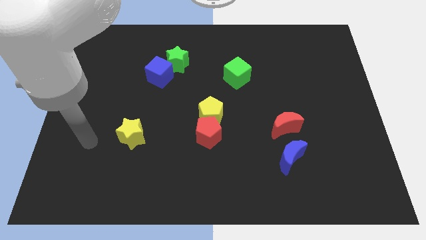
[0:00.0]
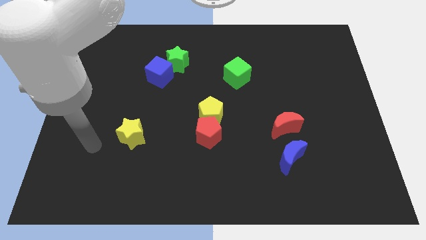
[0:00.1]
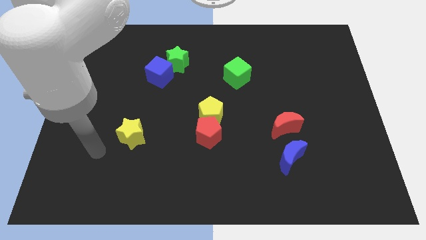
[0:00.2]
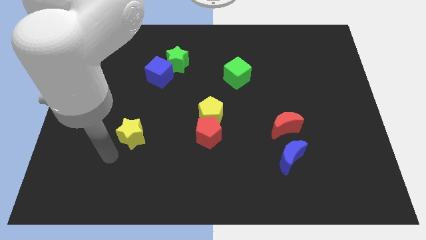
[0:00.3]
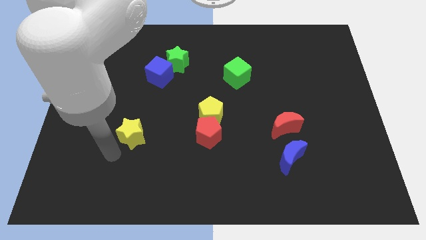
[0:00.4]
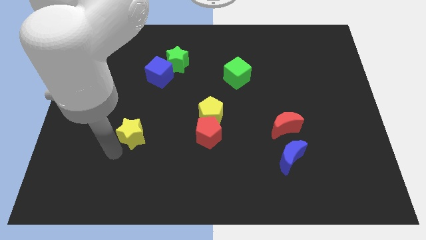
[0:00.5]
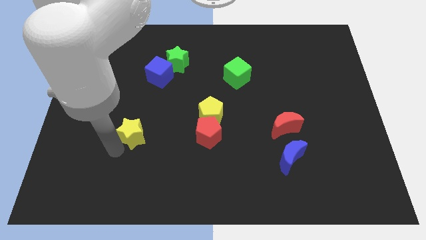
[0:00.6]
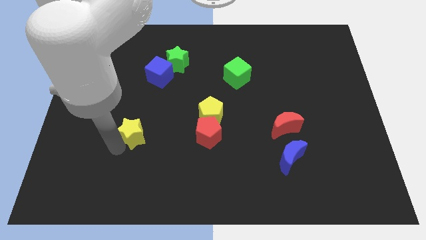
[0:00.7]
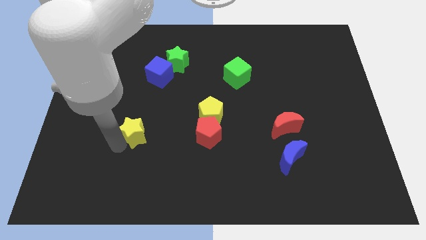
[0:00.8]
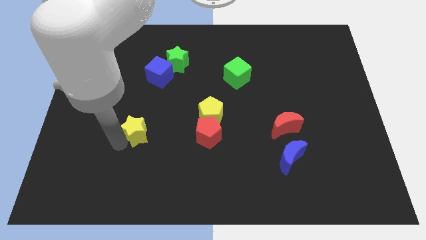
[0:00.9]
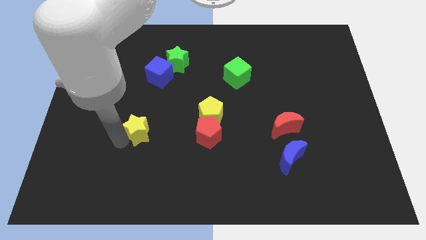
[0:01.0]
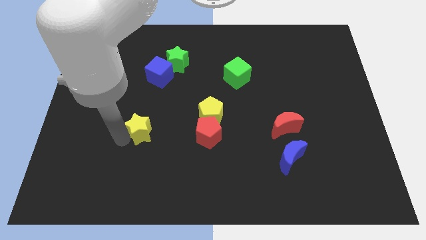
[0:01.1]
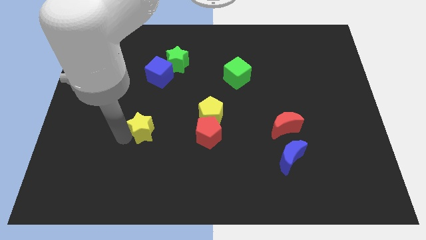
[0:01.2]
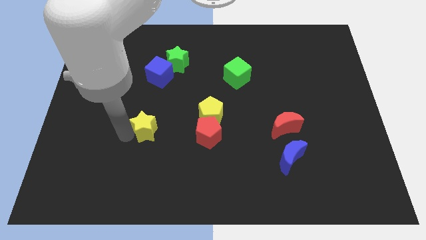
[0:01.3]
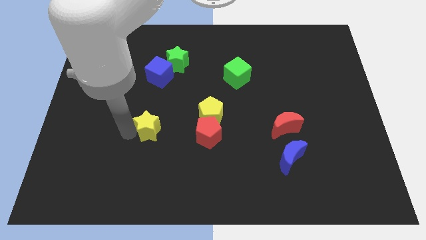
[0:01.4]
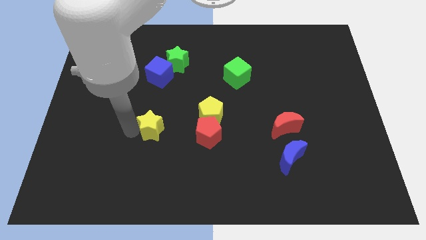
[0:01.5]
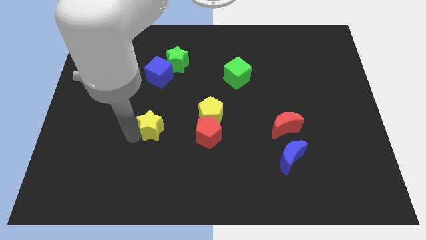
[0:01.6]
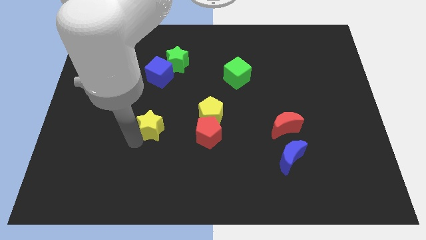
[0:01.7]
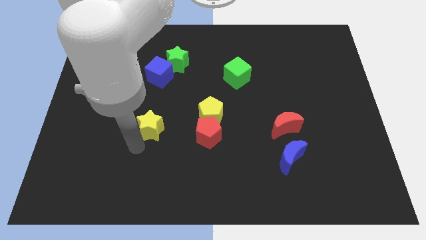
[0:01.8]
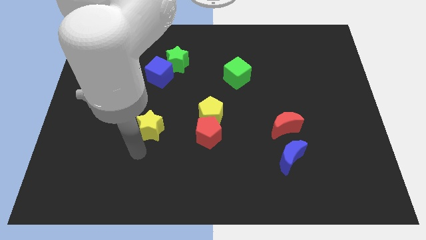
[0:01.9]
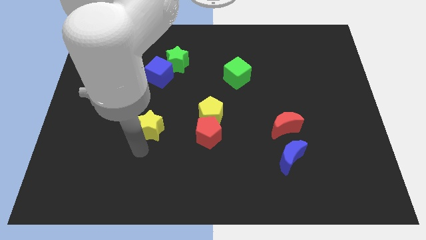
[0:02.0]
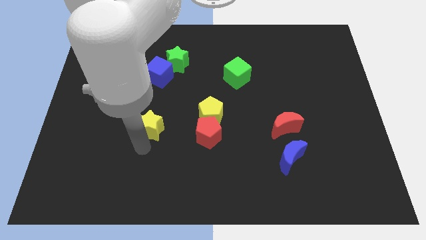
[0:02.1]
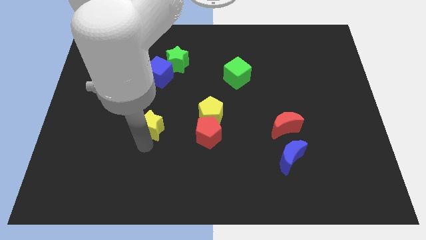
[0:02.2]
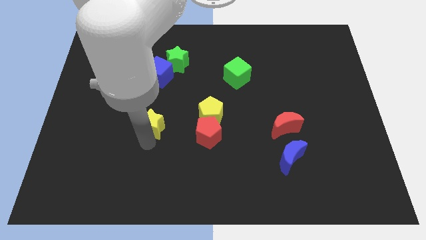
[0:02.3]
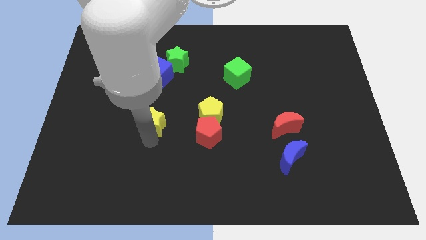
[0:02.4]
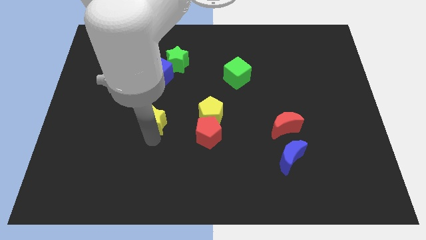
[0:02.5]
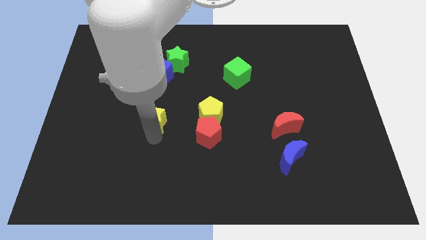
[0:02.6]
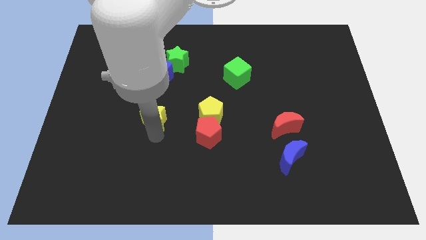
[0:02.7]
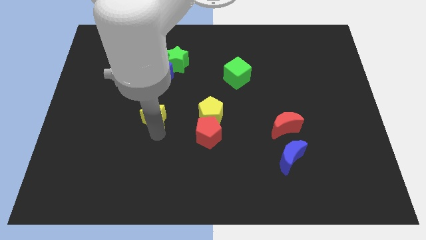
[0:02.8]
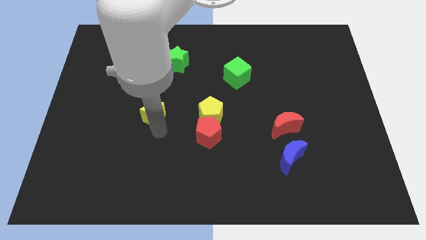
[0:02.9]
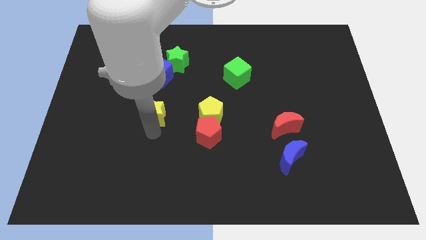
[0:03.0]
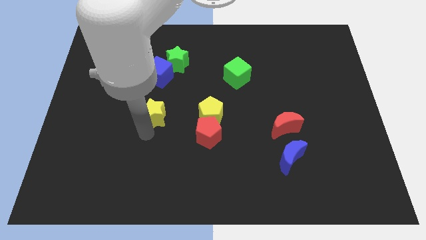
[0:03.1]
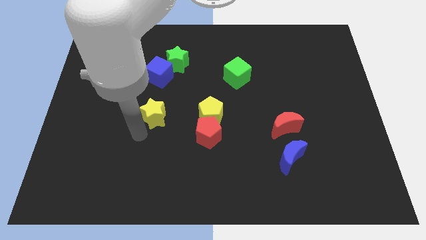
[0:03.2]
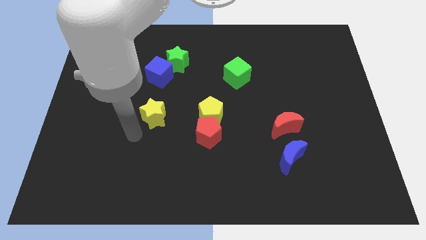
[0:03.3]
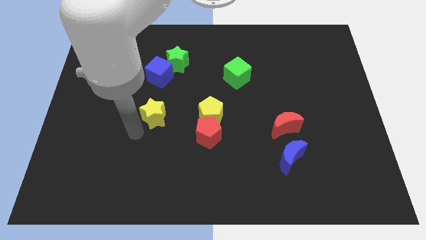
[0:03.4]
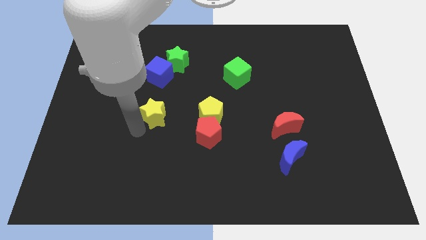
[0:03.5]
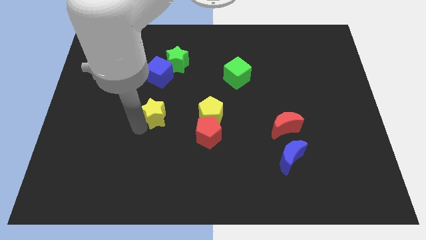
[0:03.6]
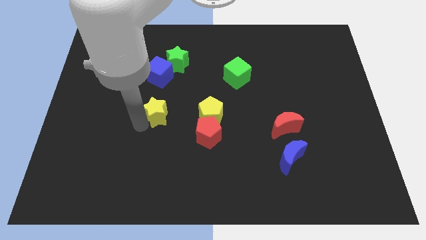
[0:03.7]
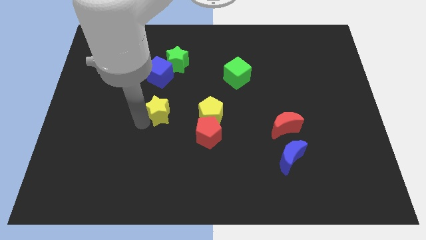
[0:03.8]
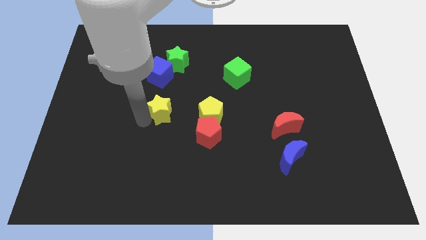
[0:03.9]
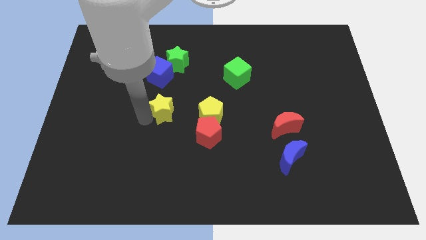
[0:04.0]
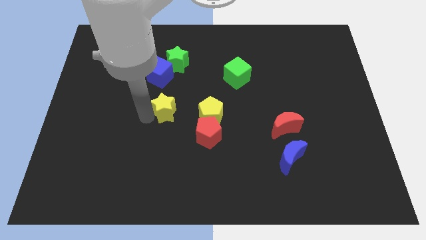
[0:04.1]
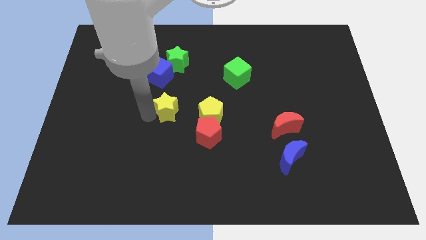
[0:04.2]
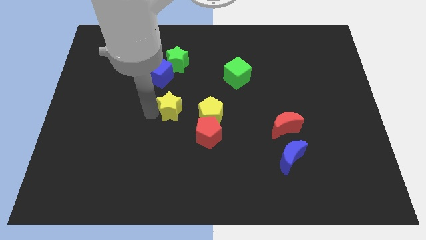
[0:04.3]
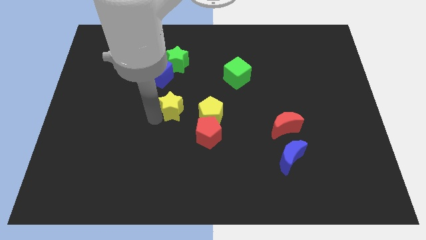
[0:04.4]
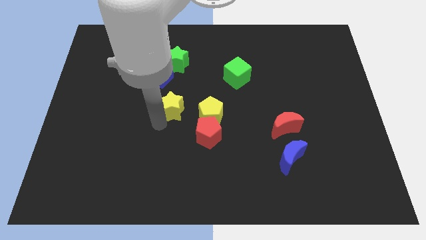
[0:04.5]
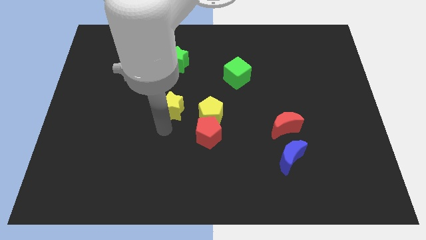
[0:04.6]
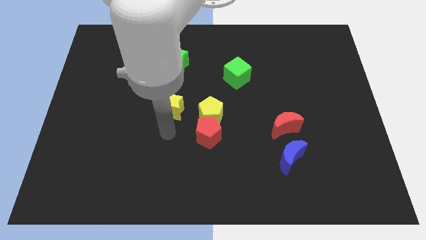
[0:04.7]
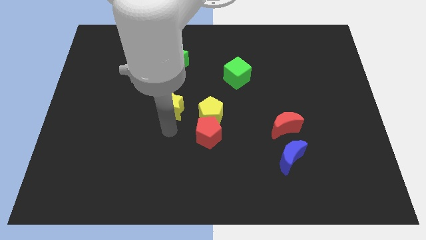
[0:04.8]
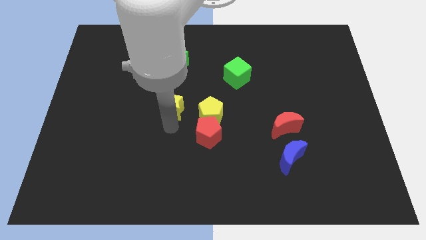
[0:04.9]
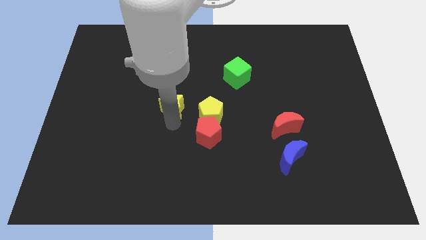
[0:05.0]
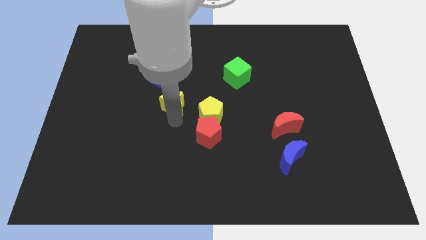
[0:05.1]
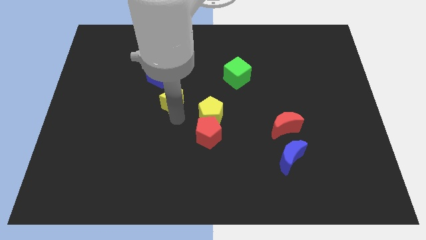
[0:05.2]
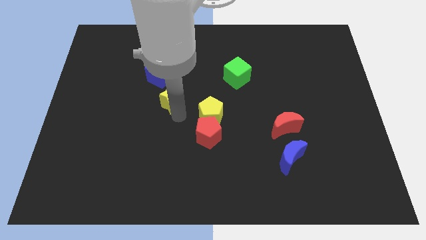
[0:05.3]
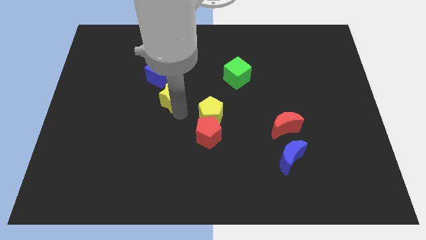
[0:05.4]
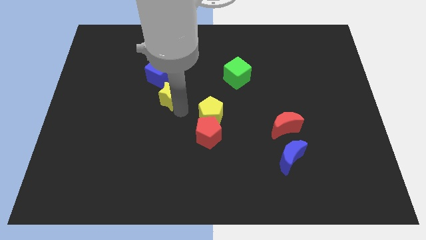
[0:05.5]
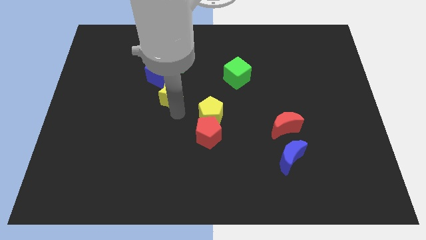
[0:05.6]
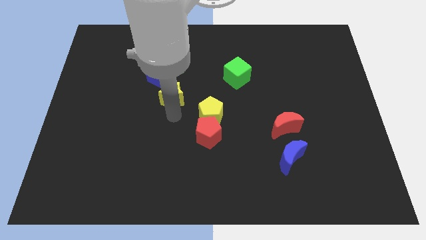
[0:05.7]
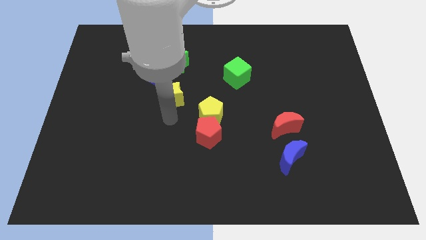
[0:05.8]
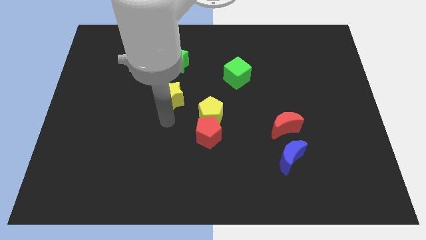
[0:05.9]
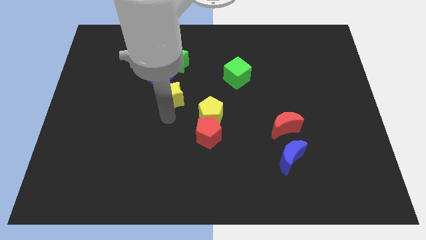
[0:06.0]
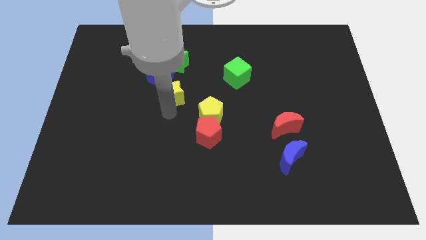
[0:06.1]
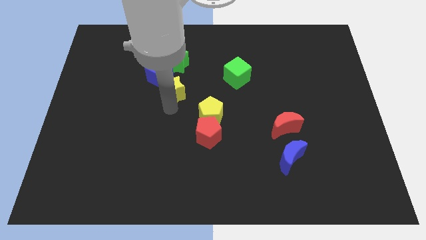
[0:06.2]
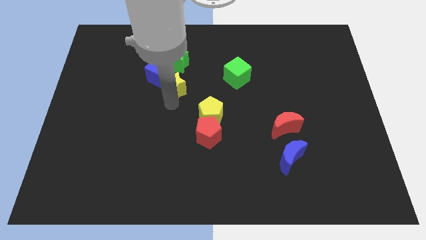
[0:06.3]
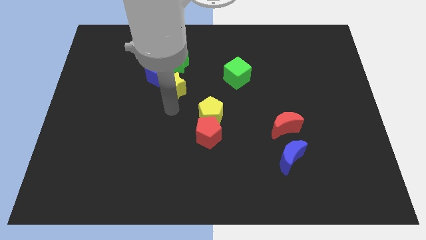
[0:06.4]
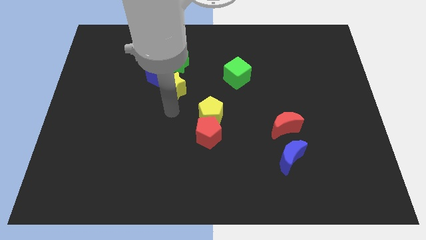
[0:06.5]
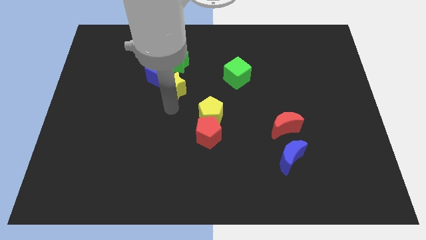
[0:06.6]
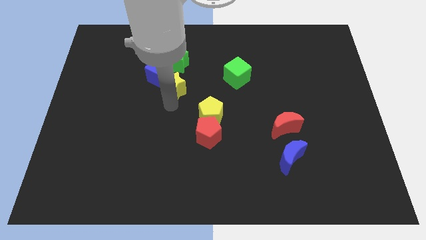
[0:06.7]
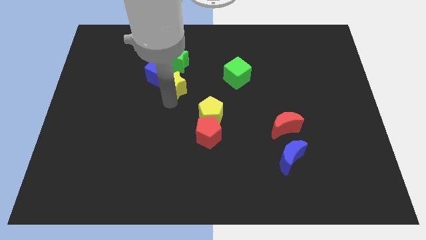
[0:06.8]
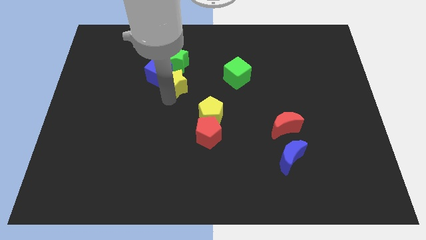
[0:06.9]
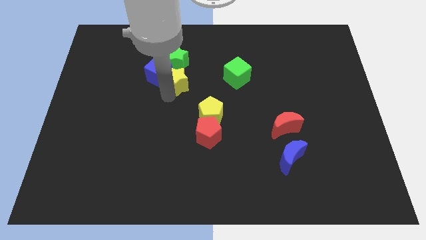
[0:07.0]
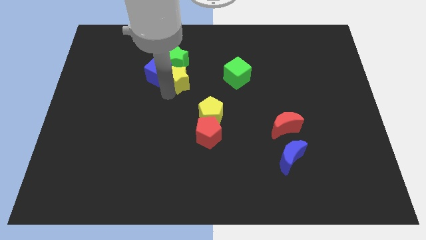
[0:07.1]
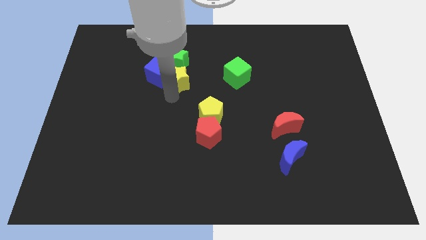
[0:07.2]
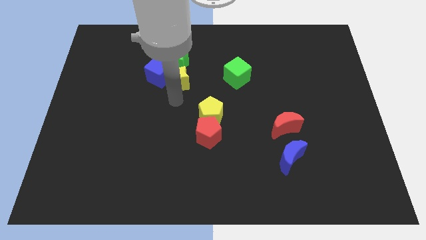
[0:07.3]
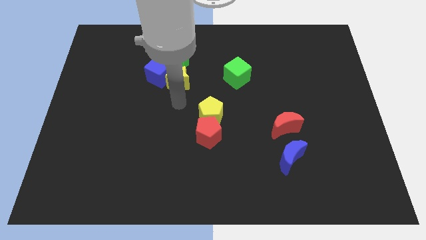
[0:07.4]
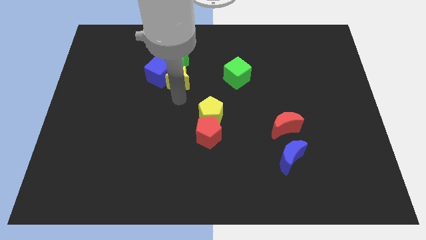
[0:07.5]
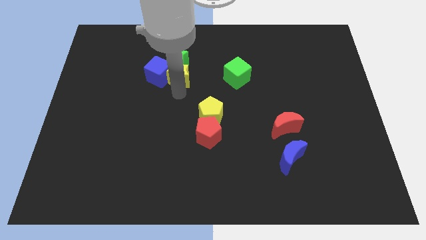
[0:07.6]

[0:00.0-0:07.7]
put the yellow star towards the green star
